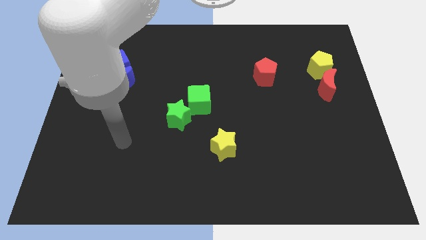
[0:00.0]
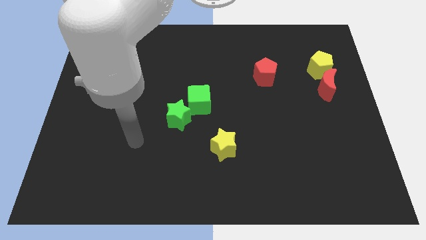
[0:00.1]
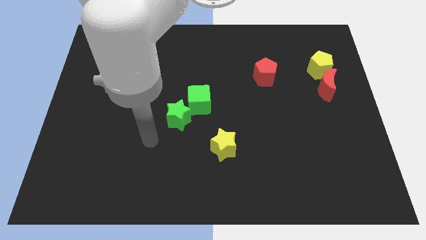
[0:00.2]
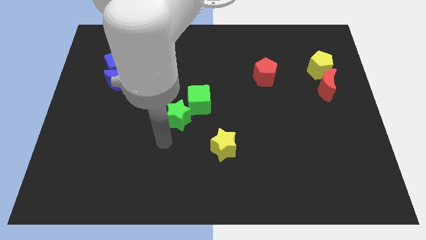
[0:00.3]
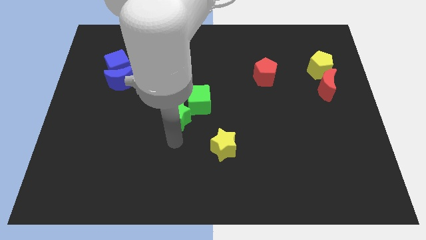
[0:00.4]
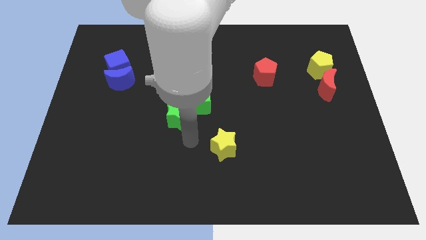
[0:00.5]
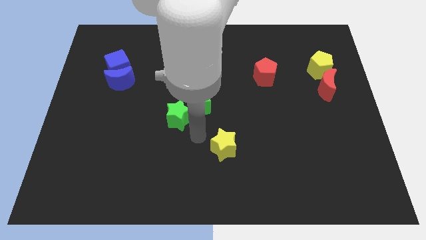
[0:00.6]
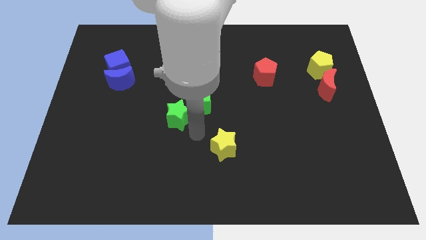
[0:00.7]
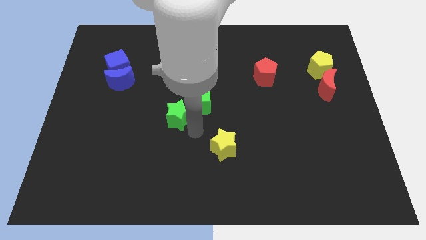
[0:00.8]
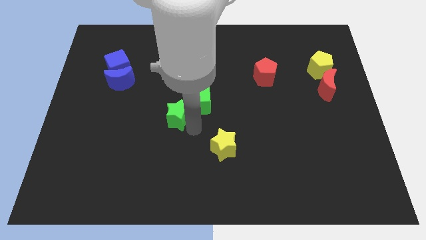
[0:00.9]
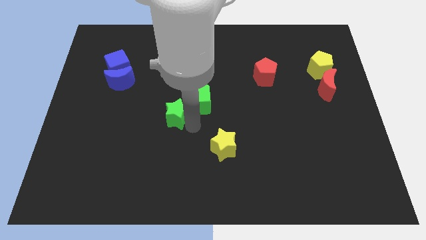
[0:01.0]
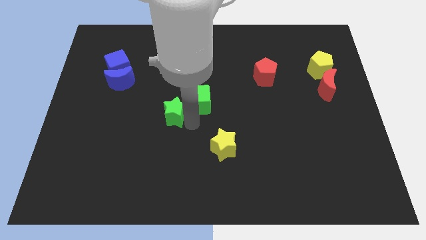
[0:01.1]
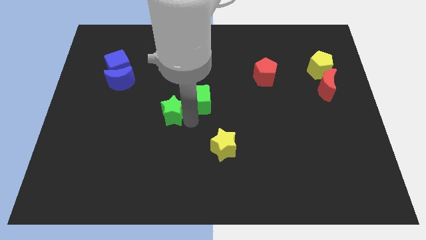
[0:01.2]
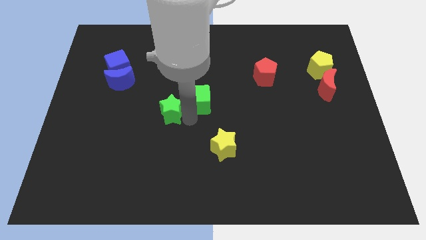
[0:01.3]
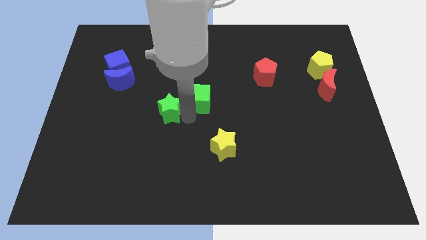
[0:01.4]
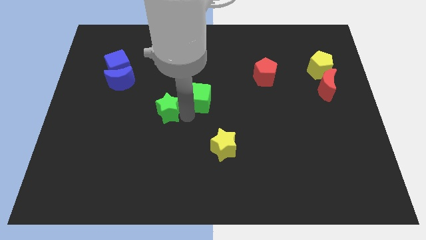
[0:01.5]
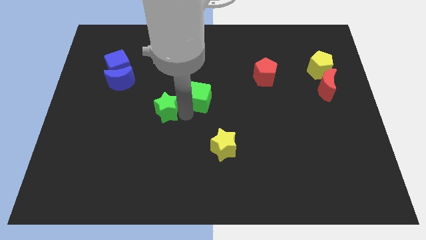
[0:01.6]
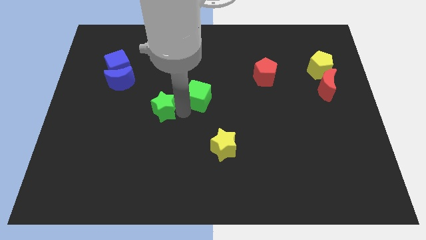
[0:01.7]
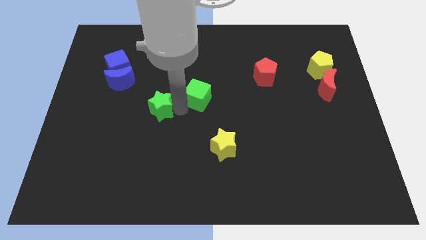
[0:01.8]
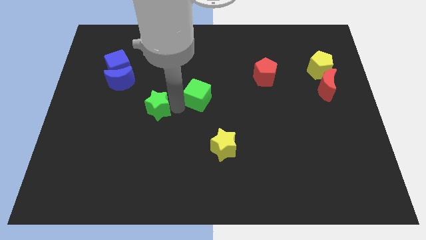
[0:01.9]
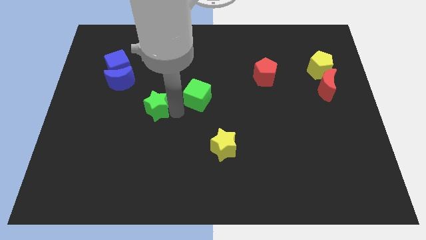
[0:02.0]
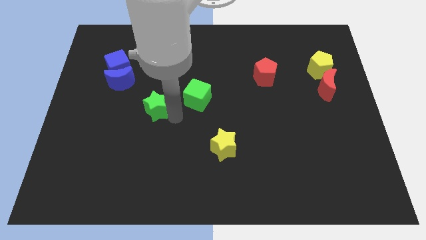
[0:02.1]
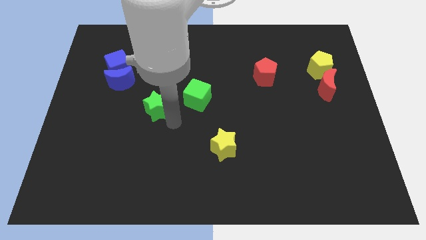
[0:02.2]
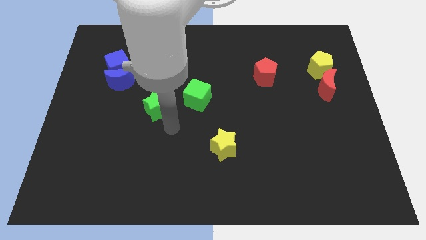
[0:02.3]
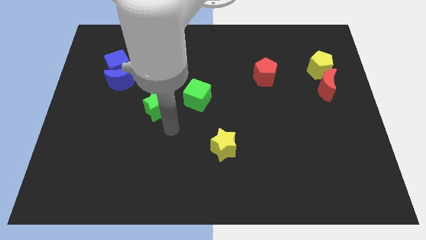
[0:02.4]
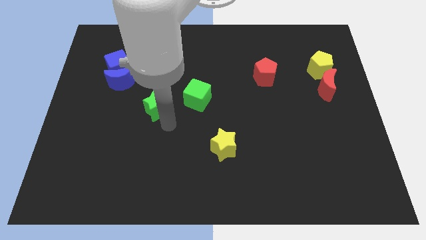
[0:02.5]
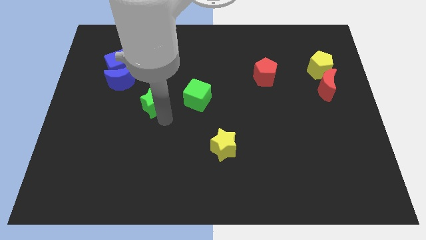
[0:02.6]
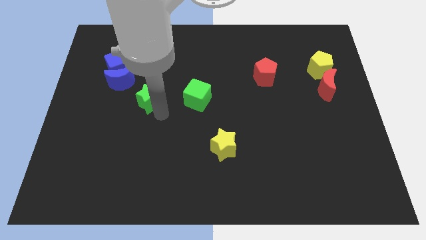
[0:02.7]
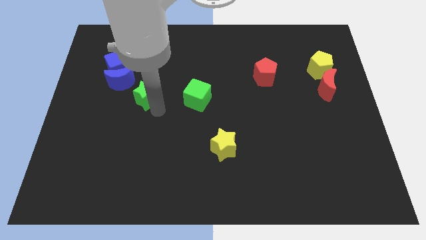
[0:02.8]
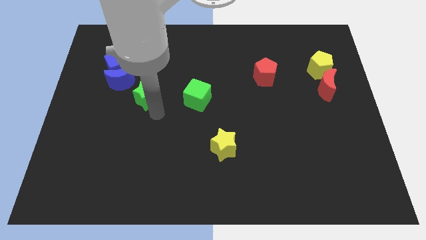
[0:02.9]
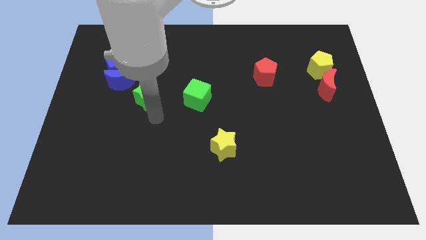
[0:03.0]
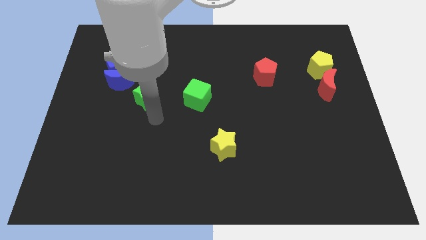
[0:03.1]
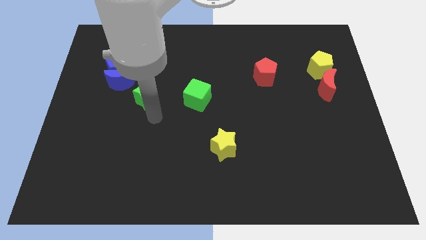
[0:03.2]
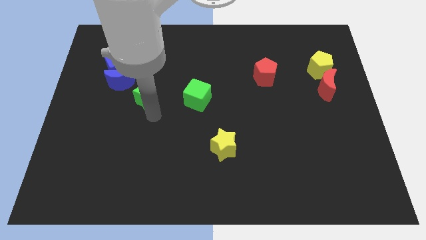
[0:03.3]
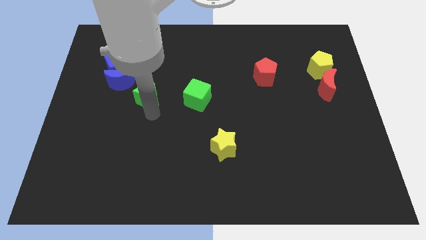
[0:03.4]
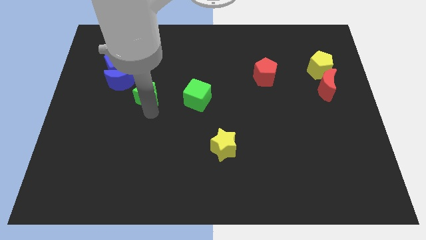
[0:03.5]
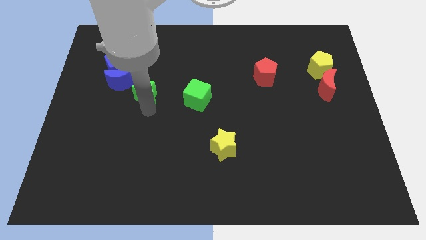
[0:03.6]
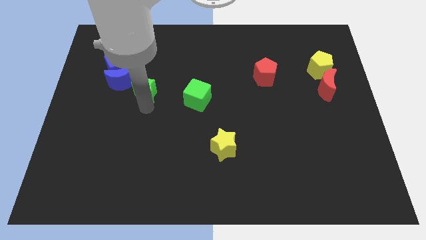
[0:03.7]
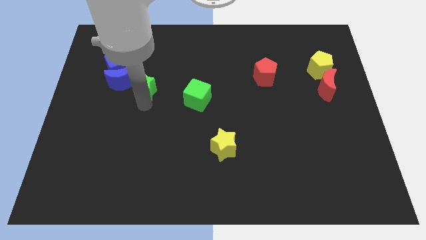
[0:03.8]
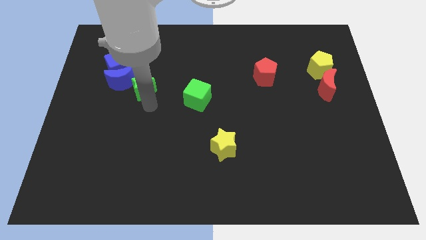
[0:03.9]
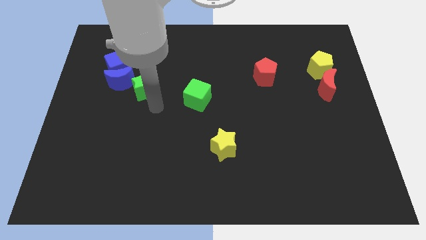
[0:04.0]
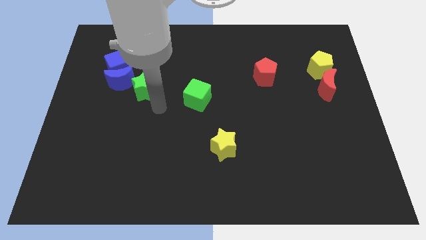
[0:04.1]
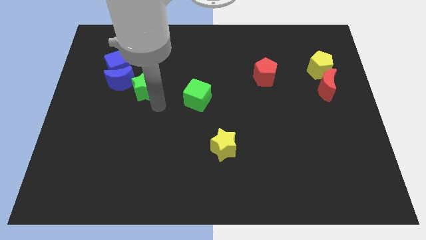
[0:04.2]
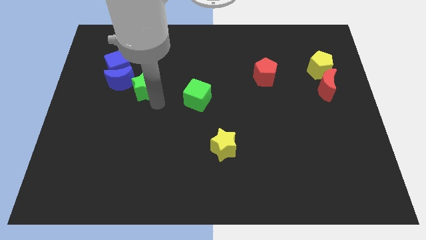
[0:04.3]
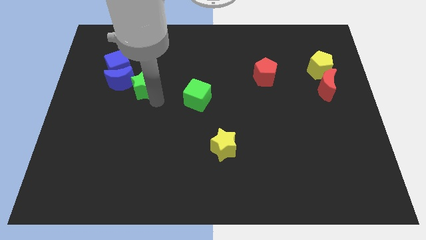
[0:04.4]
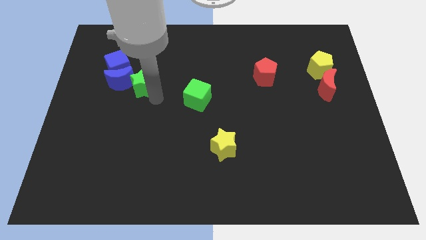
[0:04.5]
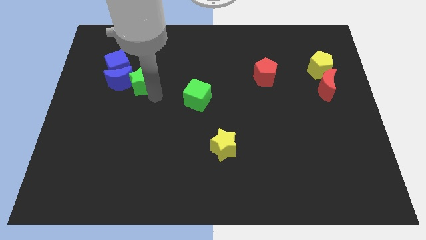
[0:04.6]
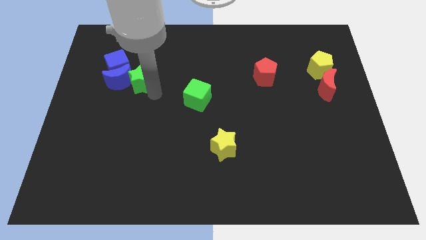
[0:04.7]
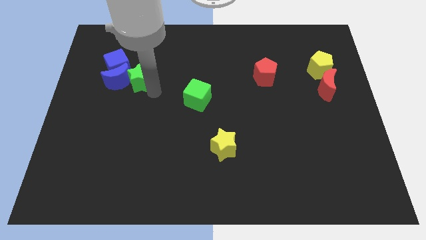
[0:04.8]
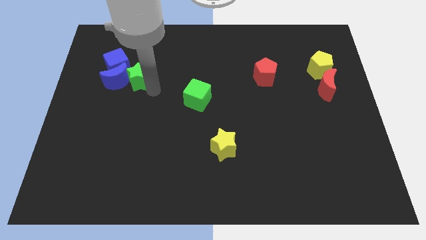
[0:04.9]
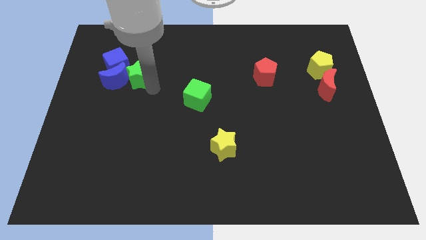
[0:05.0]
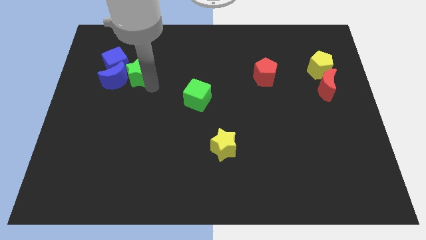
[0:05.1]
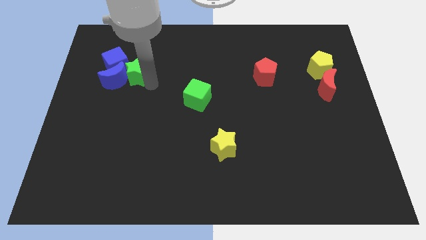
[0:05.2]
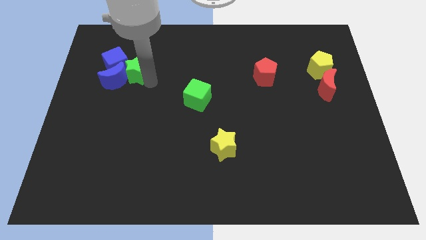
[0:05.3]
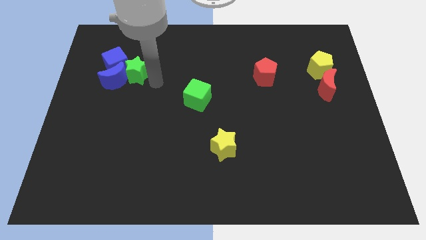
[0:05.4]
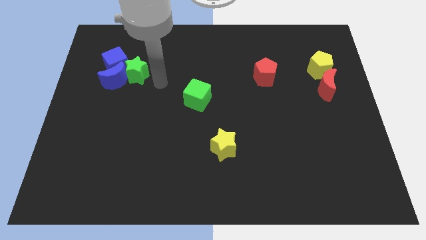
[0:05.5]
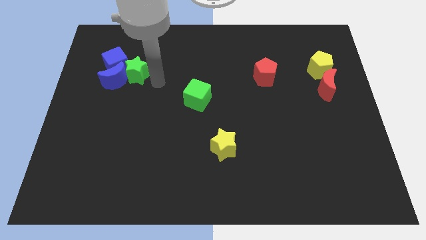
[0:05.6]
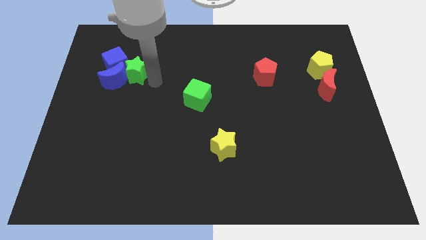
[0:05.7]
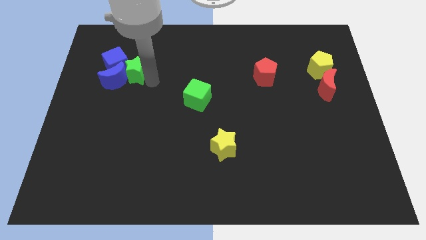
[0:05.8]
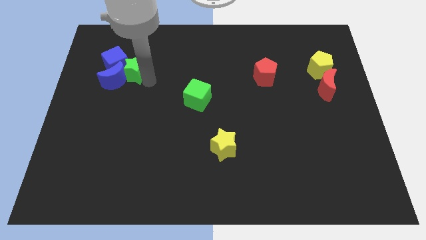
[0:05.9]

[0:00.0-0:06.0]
move the green star towards the blue cube

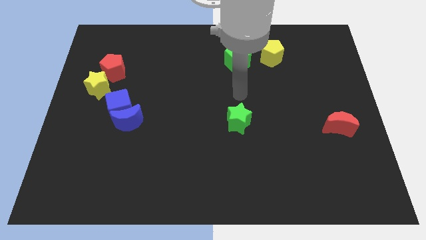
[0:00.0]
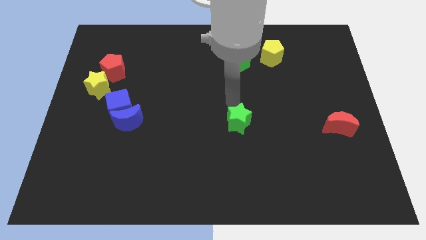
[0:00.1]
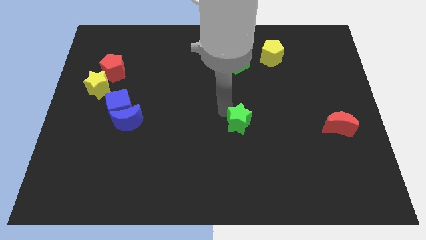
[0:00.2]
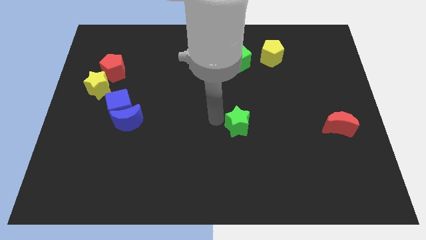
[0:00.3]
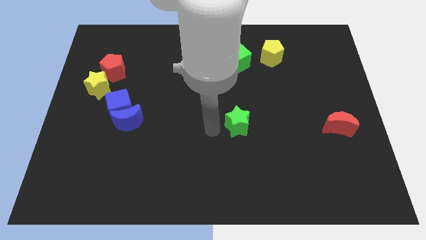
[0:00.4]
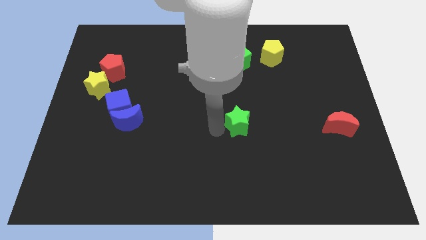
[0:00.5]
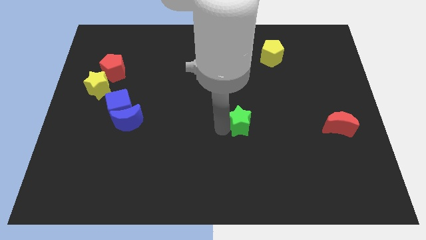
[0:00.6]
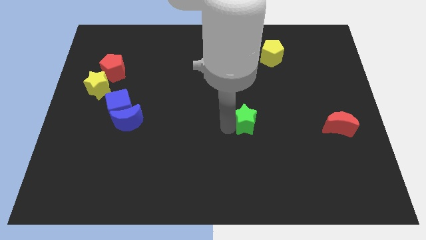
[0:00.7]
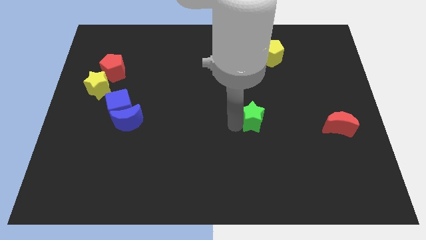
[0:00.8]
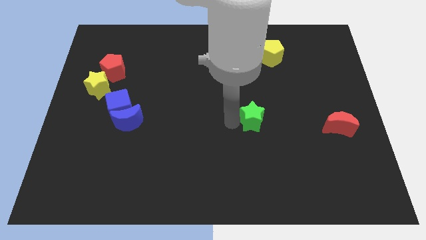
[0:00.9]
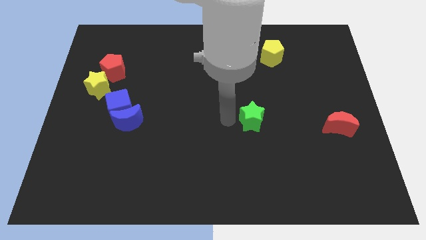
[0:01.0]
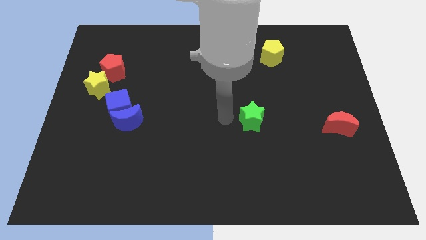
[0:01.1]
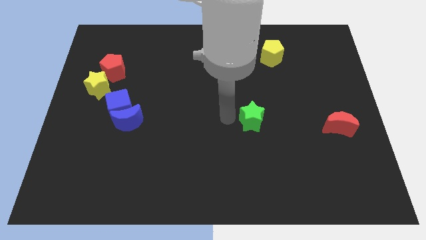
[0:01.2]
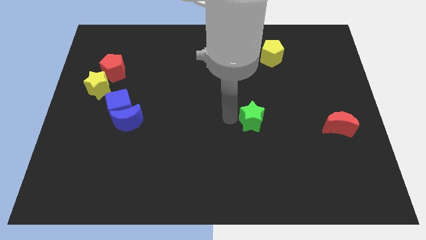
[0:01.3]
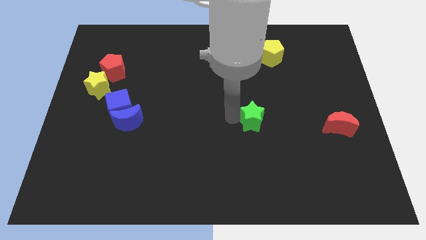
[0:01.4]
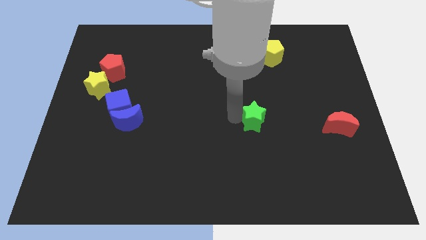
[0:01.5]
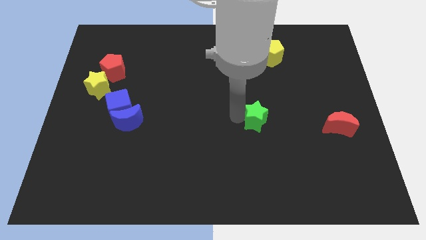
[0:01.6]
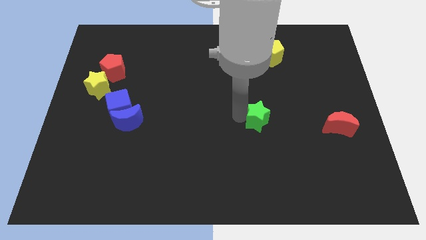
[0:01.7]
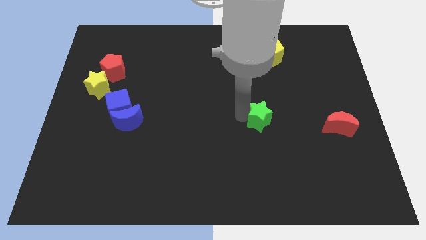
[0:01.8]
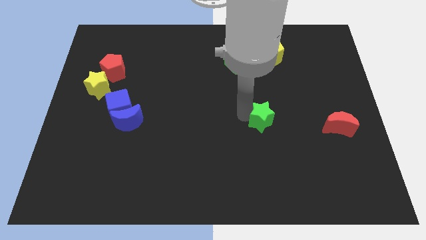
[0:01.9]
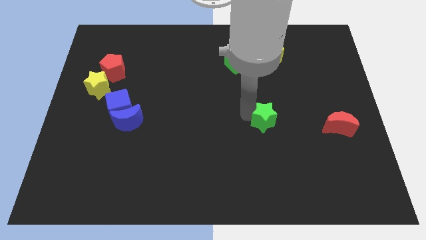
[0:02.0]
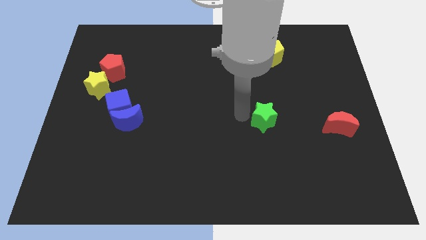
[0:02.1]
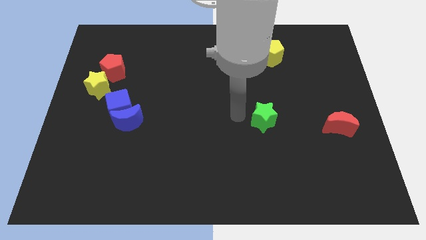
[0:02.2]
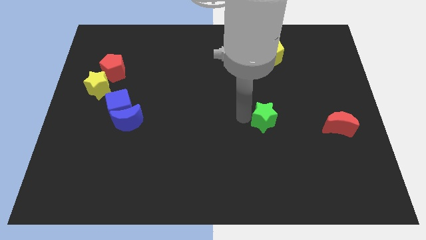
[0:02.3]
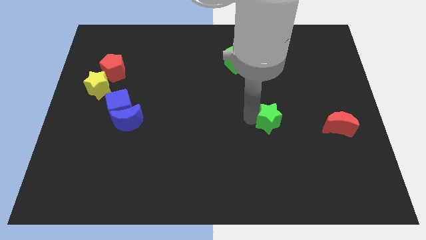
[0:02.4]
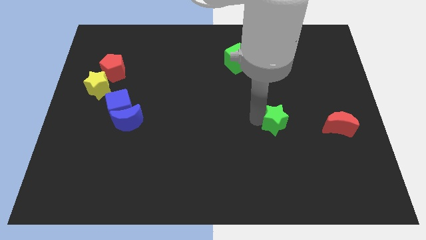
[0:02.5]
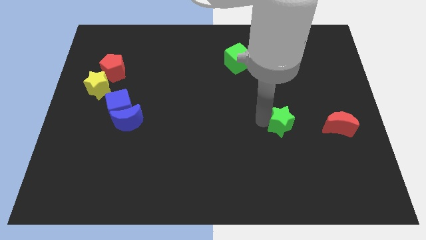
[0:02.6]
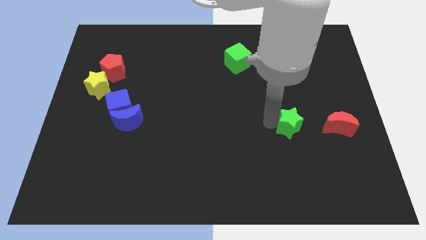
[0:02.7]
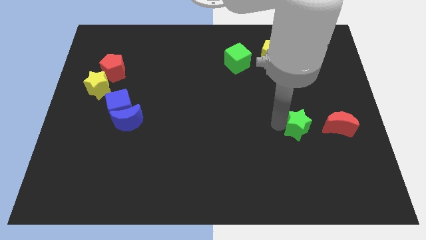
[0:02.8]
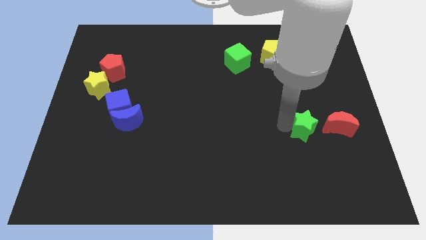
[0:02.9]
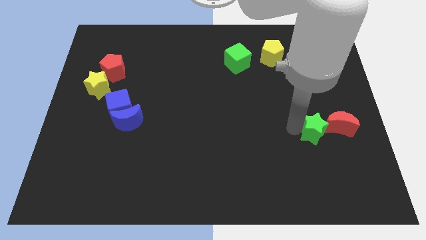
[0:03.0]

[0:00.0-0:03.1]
slide the green star to the red moon
